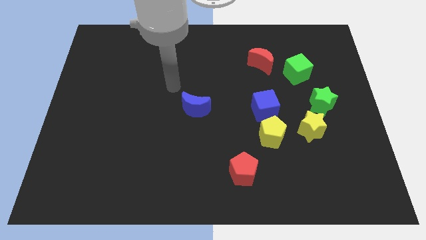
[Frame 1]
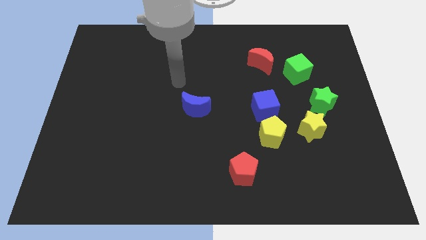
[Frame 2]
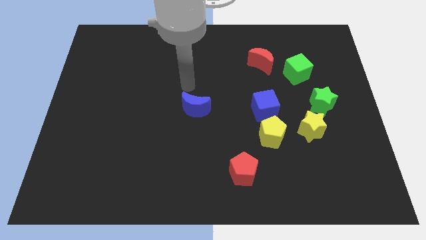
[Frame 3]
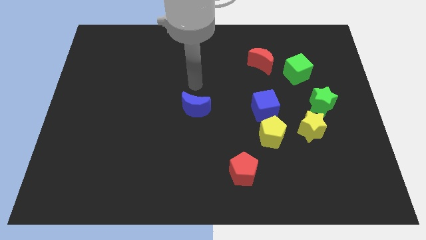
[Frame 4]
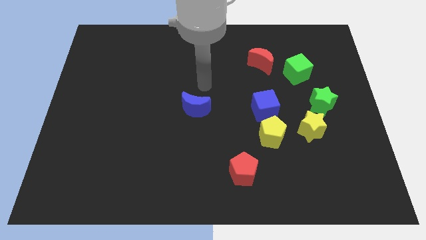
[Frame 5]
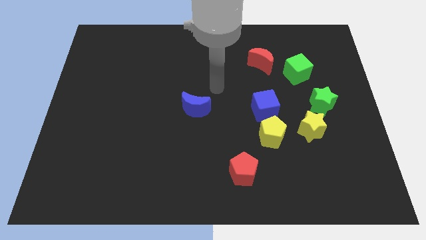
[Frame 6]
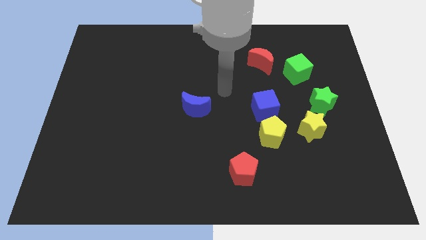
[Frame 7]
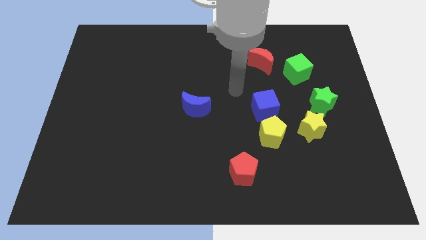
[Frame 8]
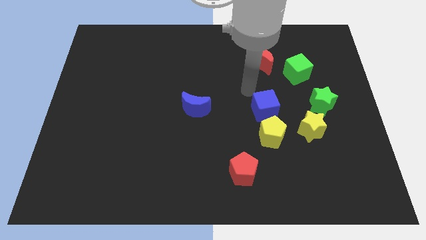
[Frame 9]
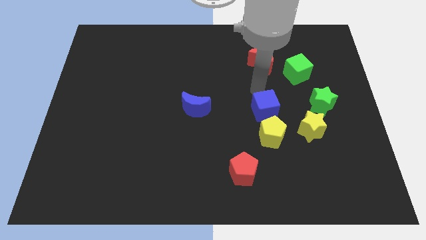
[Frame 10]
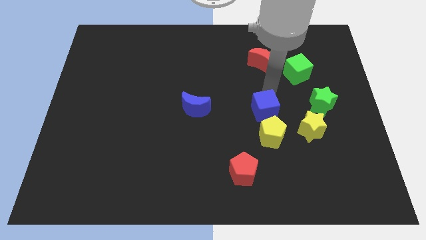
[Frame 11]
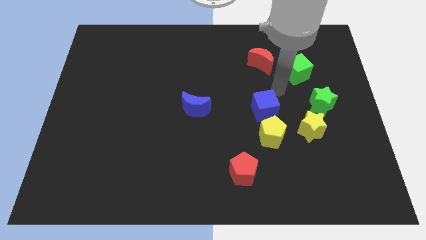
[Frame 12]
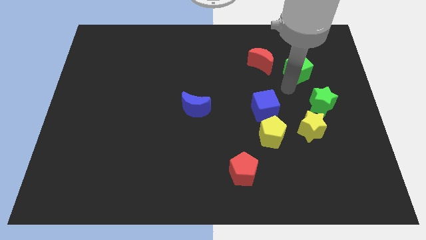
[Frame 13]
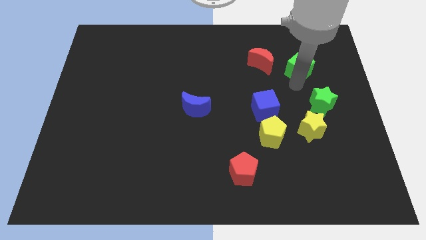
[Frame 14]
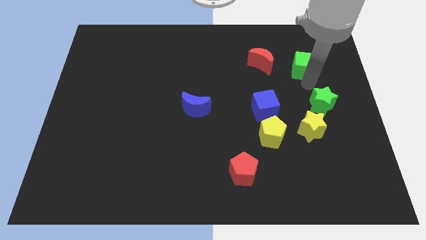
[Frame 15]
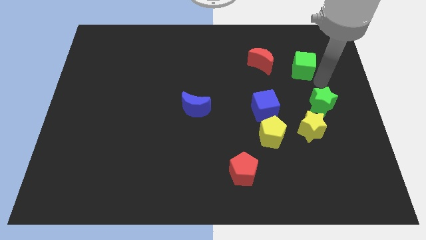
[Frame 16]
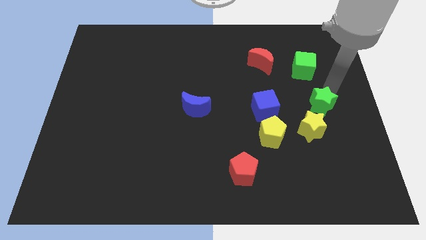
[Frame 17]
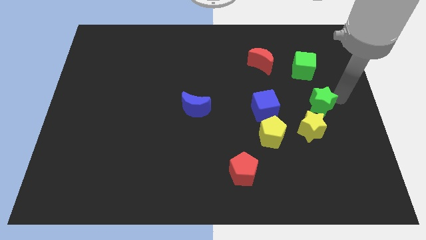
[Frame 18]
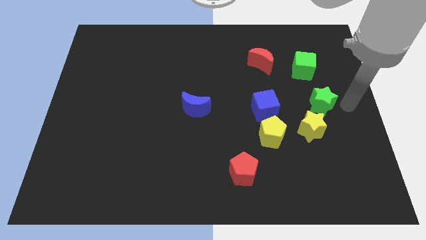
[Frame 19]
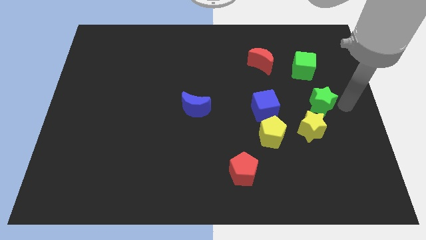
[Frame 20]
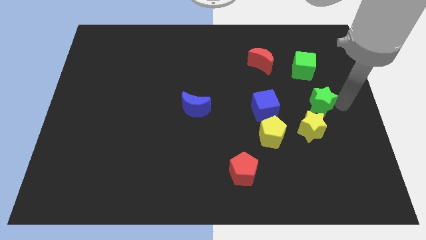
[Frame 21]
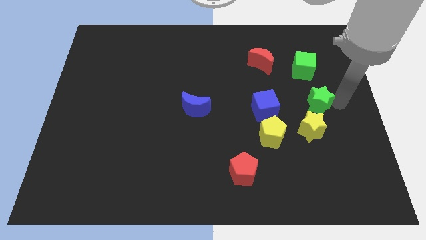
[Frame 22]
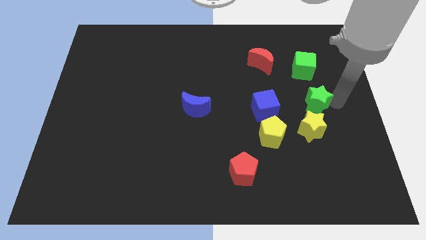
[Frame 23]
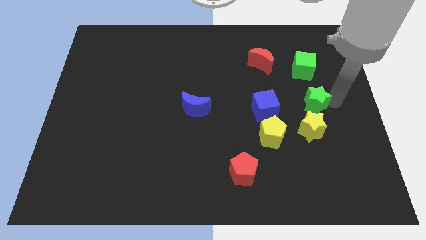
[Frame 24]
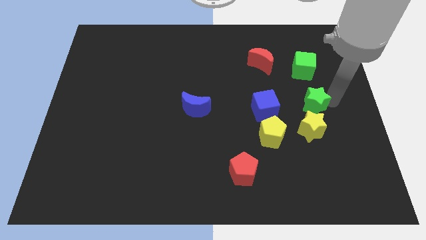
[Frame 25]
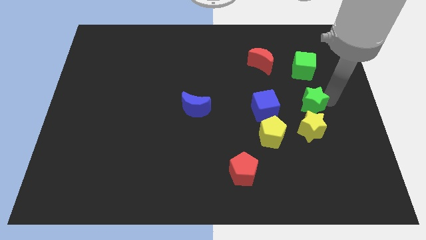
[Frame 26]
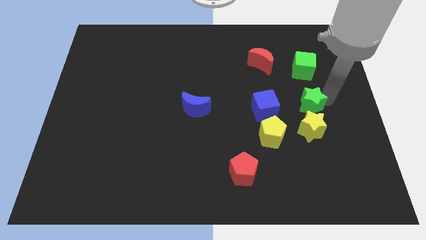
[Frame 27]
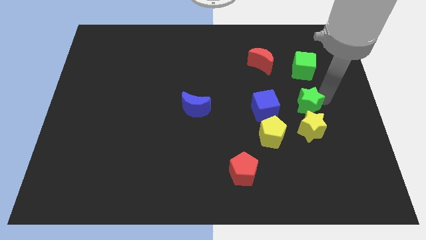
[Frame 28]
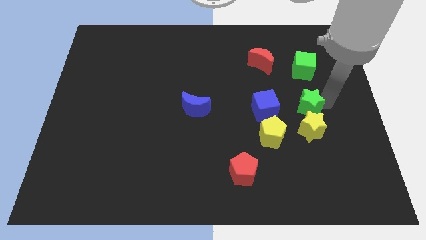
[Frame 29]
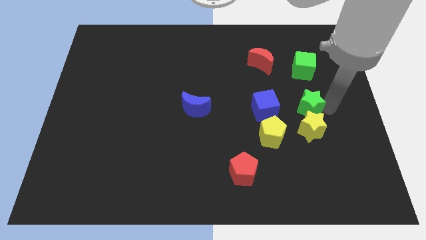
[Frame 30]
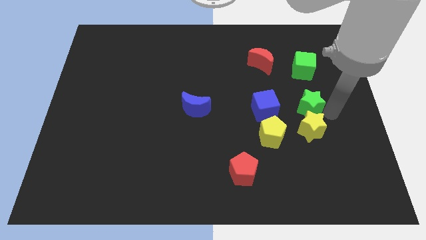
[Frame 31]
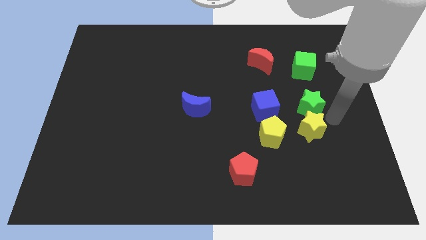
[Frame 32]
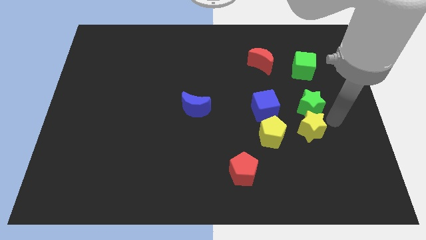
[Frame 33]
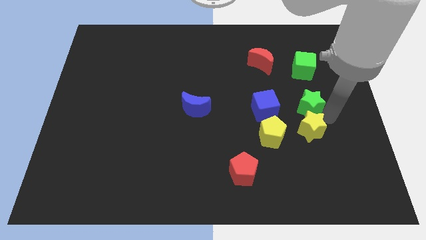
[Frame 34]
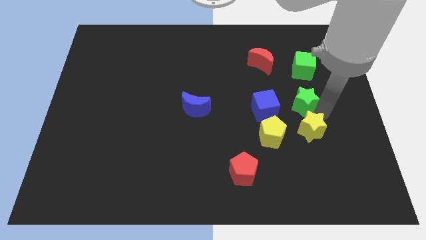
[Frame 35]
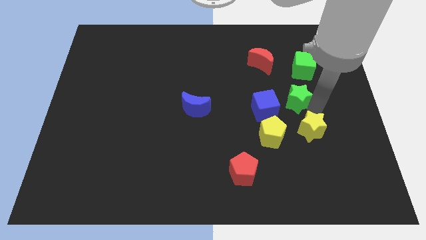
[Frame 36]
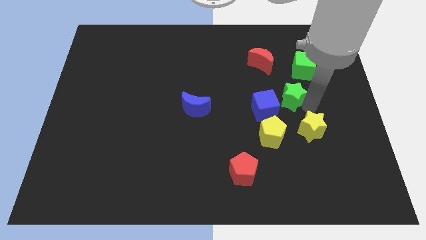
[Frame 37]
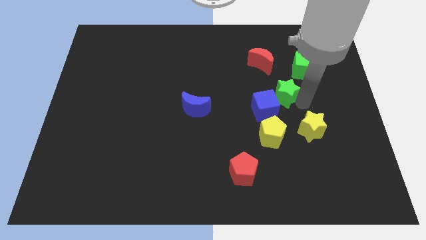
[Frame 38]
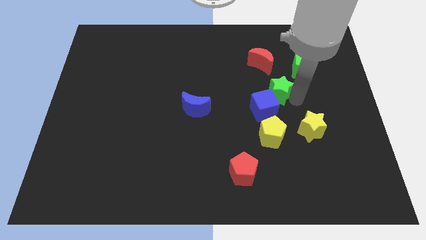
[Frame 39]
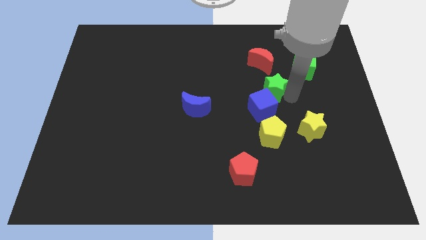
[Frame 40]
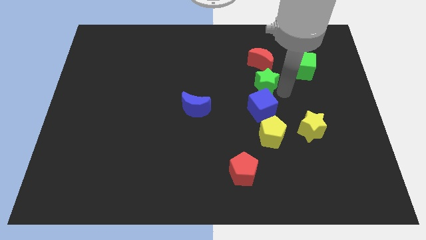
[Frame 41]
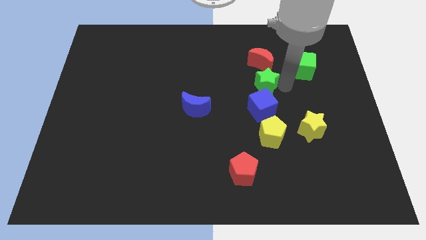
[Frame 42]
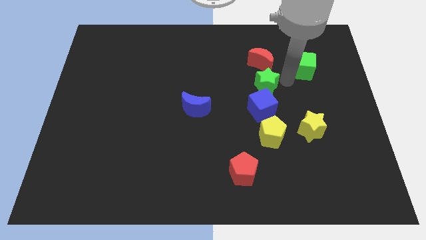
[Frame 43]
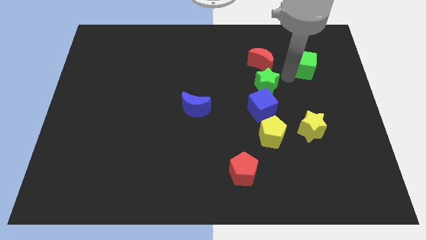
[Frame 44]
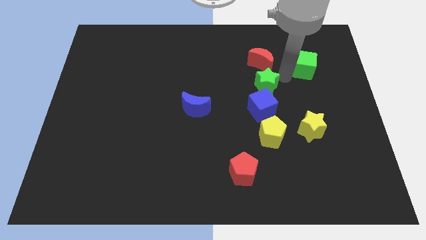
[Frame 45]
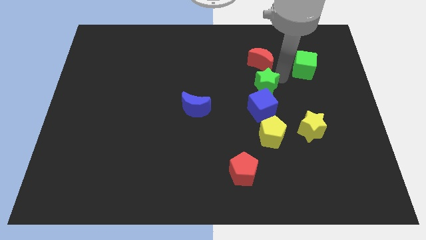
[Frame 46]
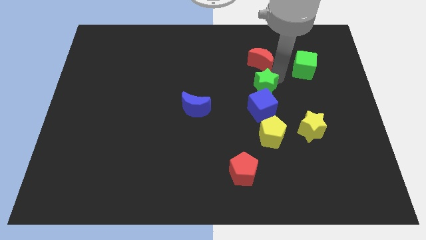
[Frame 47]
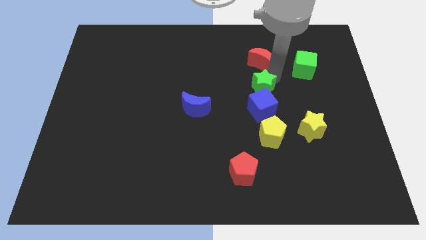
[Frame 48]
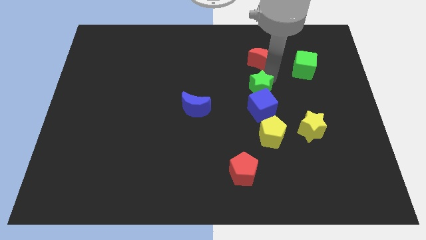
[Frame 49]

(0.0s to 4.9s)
move the green star to the middle

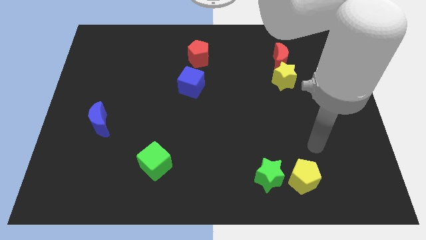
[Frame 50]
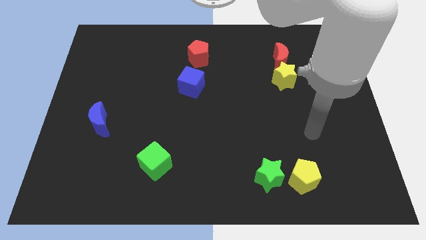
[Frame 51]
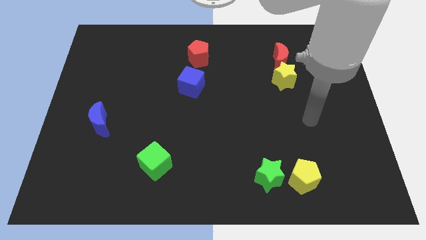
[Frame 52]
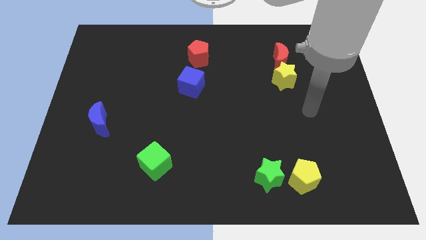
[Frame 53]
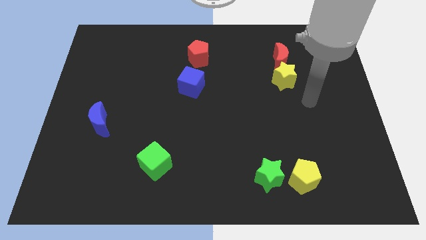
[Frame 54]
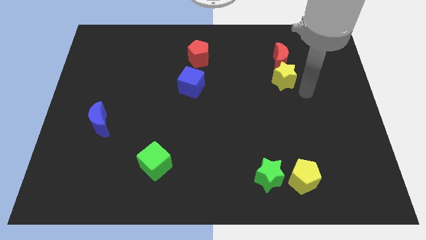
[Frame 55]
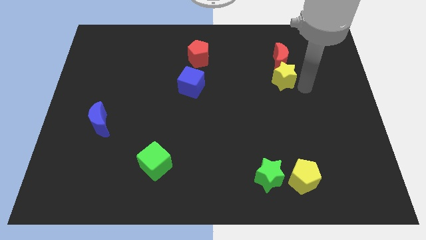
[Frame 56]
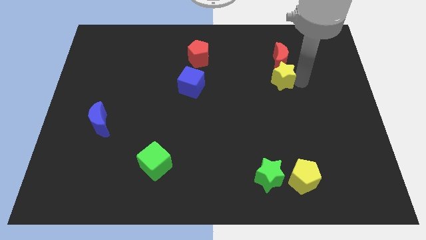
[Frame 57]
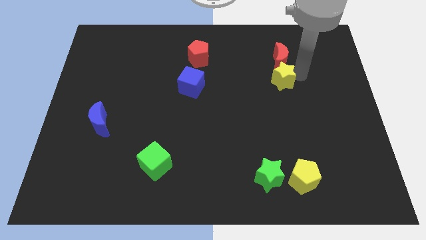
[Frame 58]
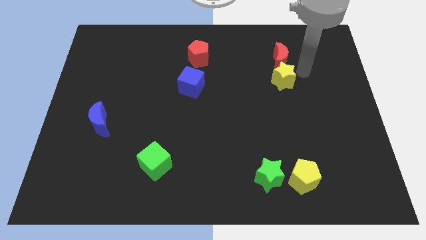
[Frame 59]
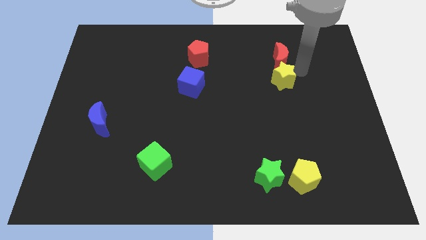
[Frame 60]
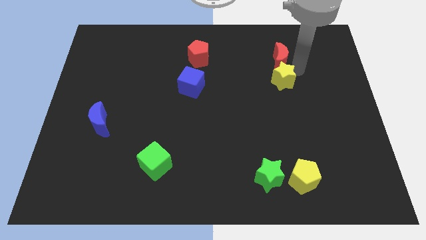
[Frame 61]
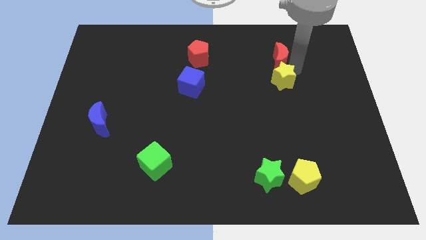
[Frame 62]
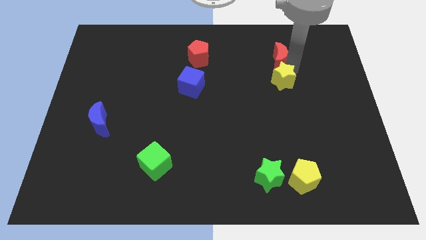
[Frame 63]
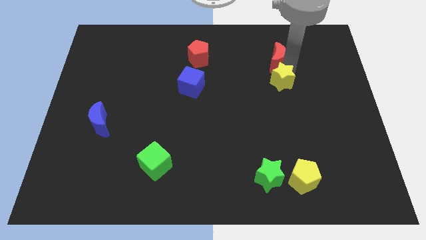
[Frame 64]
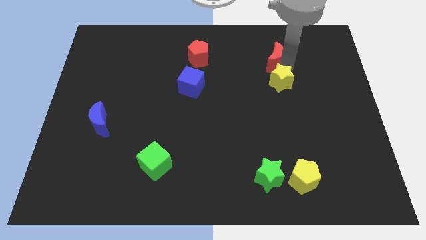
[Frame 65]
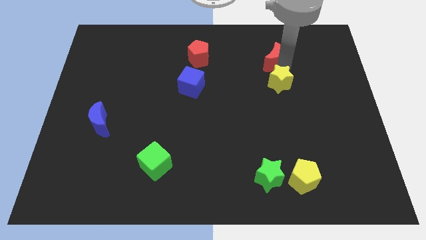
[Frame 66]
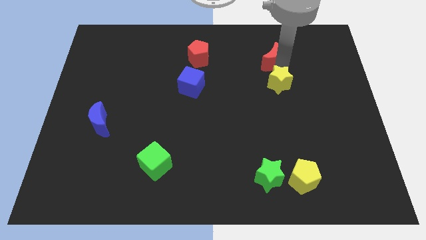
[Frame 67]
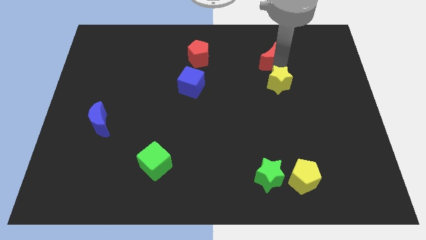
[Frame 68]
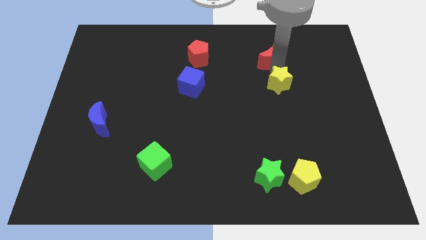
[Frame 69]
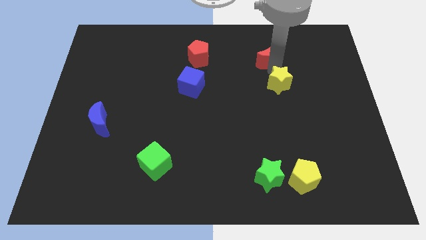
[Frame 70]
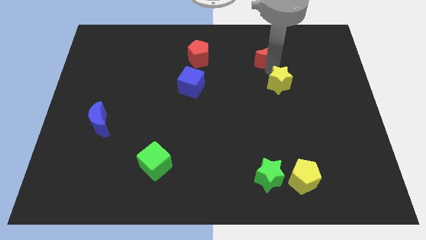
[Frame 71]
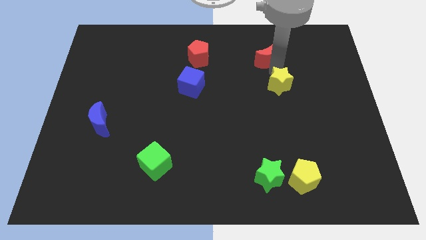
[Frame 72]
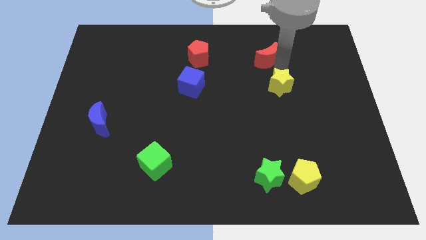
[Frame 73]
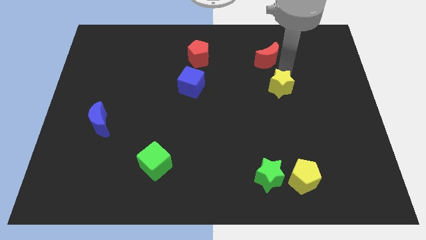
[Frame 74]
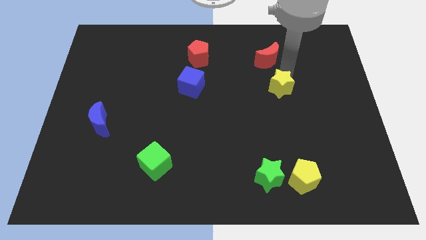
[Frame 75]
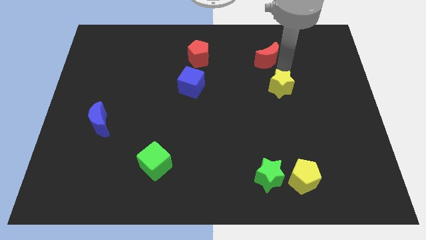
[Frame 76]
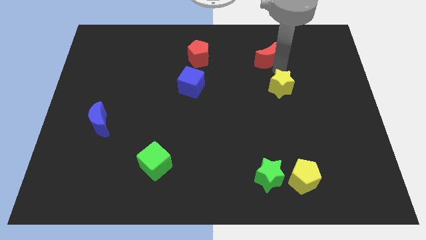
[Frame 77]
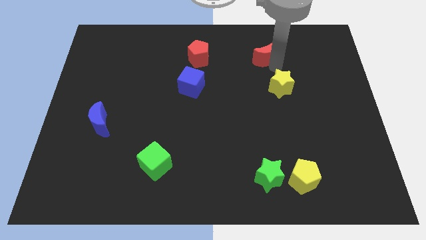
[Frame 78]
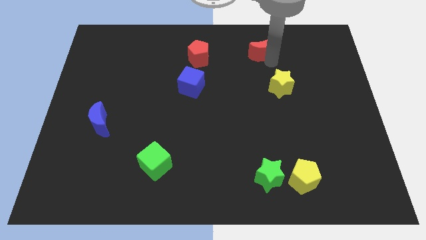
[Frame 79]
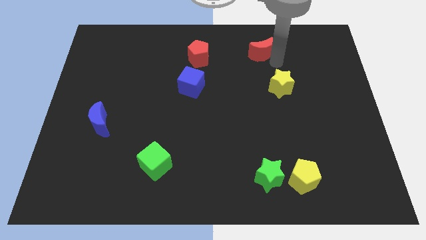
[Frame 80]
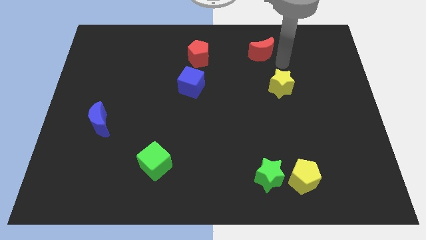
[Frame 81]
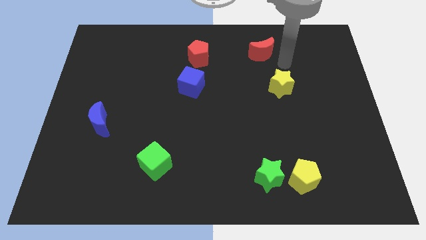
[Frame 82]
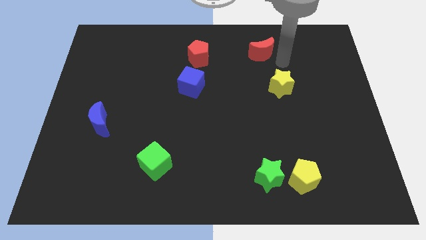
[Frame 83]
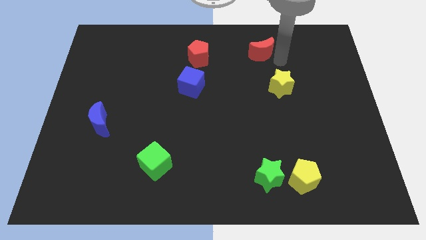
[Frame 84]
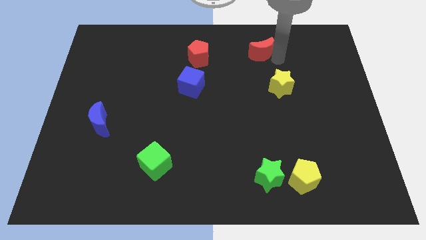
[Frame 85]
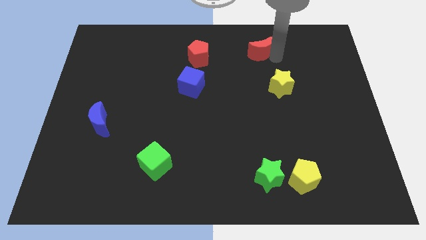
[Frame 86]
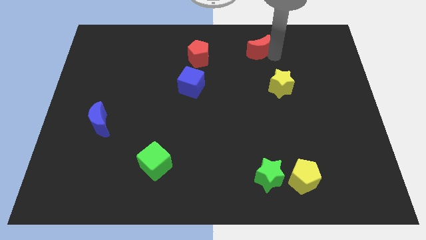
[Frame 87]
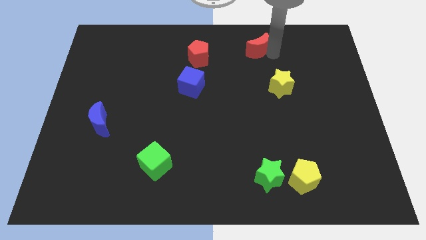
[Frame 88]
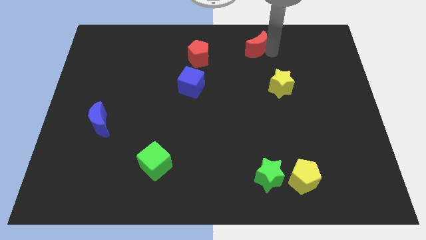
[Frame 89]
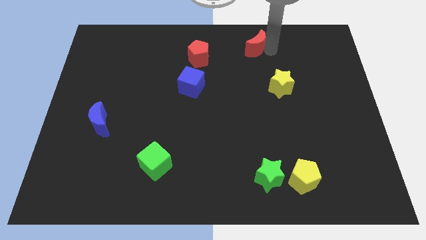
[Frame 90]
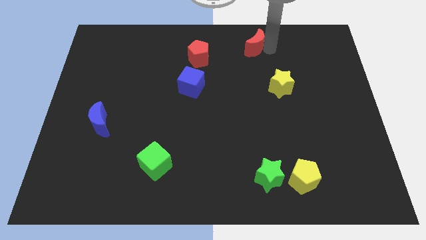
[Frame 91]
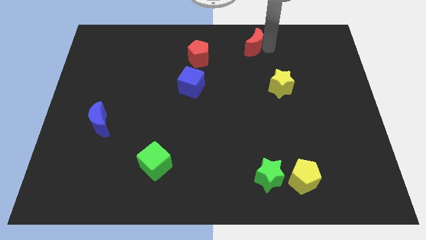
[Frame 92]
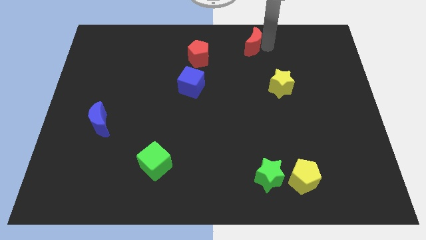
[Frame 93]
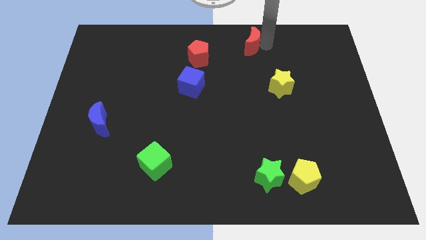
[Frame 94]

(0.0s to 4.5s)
put the red moon to the towards your base
